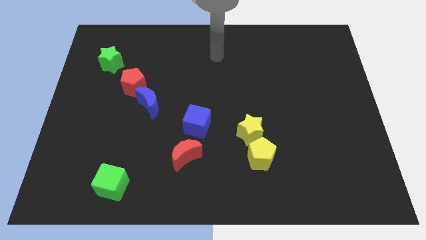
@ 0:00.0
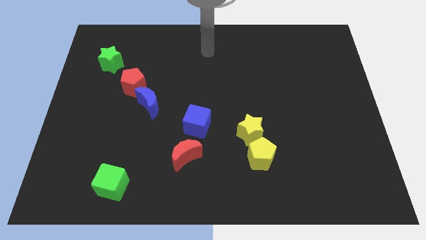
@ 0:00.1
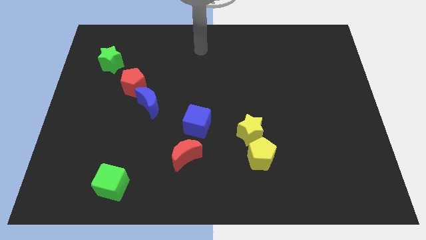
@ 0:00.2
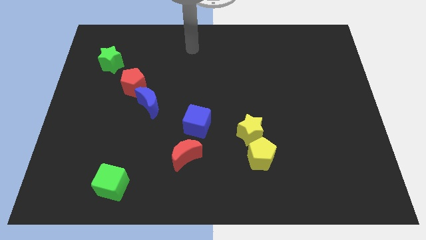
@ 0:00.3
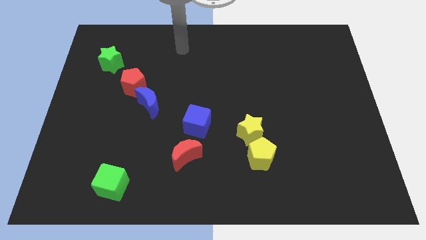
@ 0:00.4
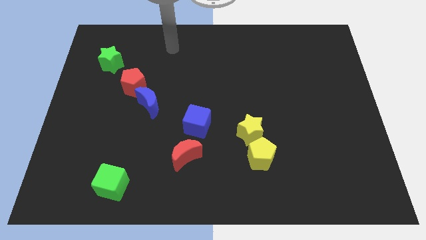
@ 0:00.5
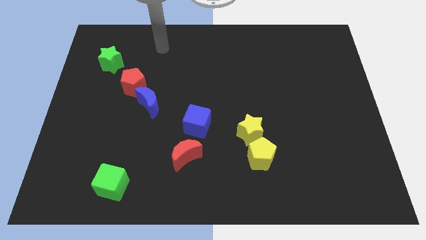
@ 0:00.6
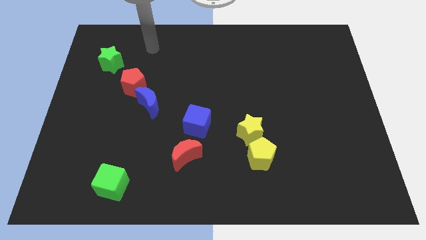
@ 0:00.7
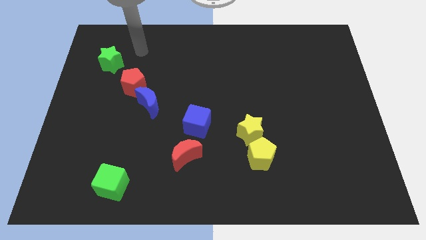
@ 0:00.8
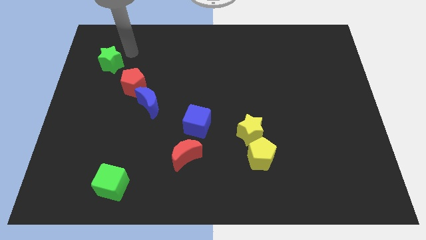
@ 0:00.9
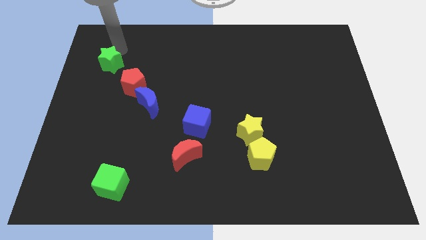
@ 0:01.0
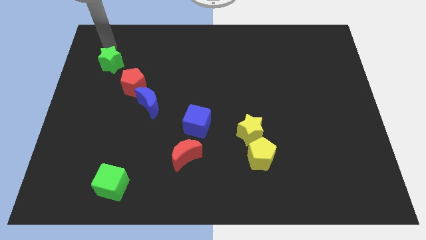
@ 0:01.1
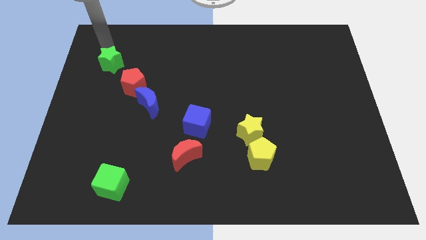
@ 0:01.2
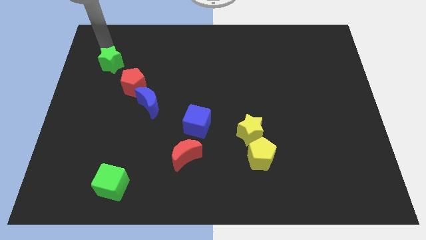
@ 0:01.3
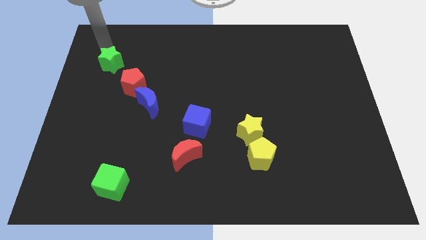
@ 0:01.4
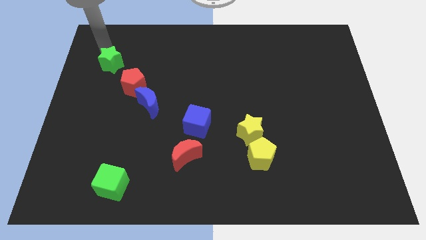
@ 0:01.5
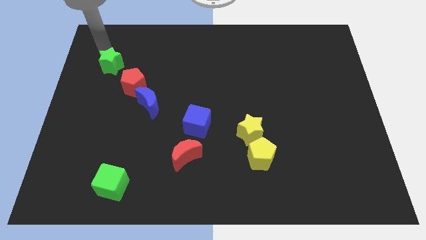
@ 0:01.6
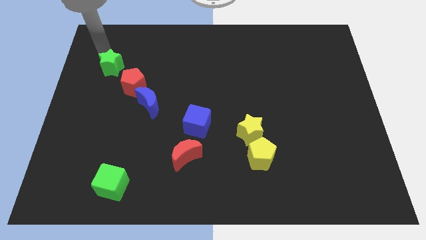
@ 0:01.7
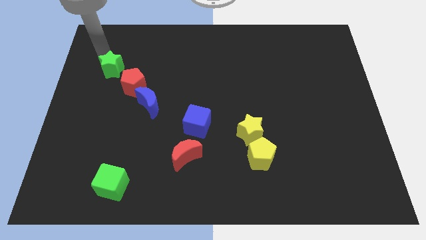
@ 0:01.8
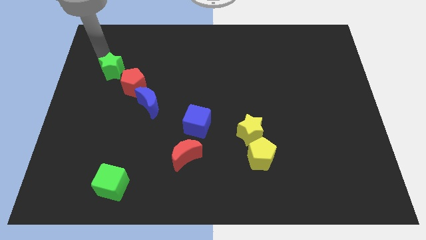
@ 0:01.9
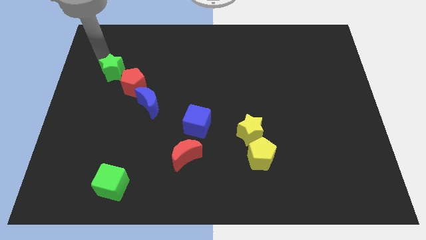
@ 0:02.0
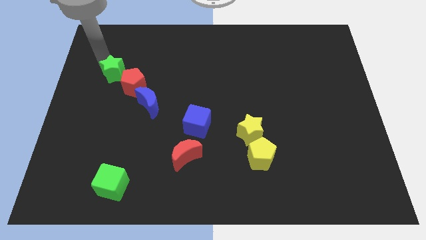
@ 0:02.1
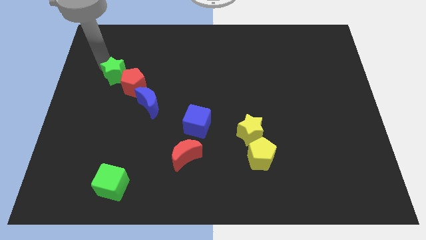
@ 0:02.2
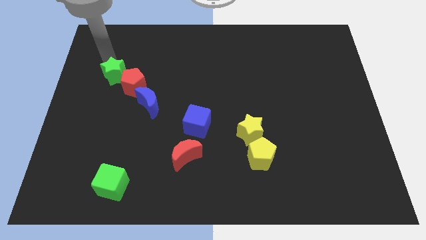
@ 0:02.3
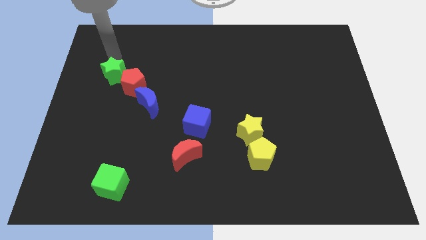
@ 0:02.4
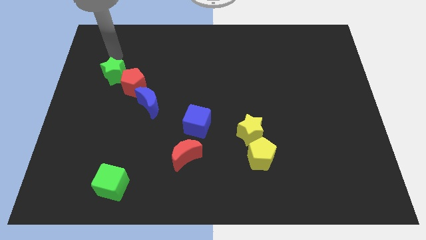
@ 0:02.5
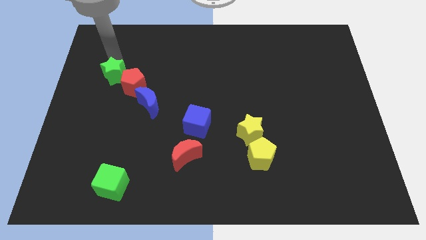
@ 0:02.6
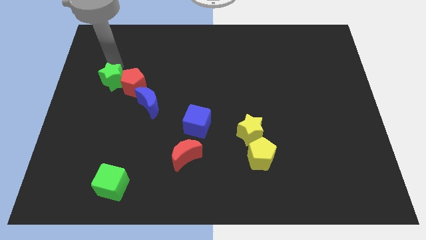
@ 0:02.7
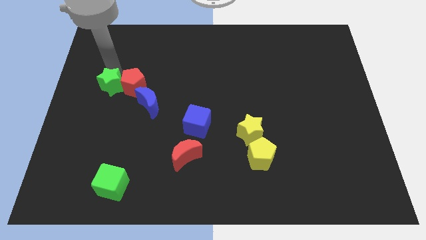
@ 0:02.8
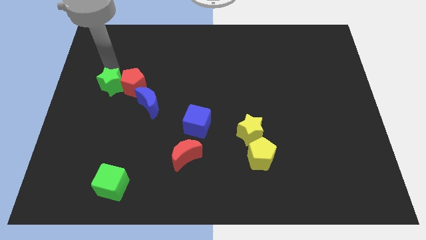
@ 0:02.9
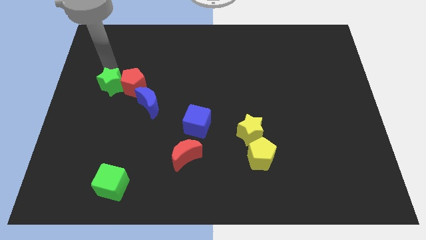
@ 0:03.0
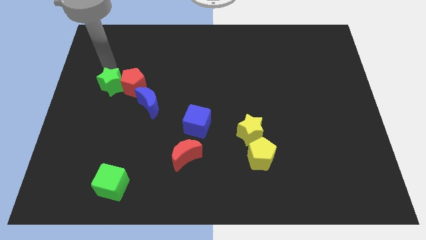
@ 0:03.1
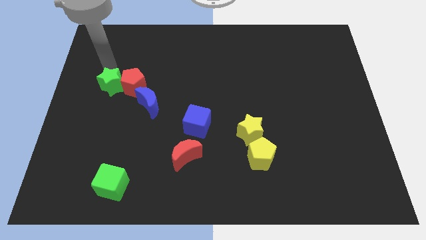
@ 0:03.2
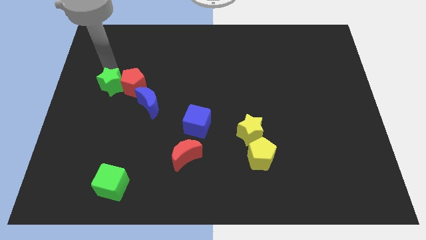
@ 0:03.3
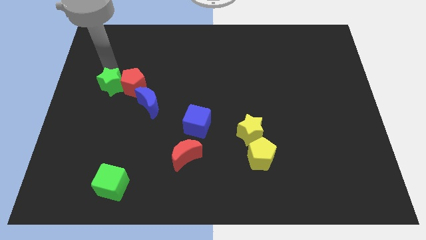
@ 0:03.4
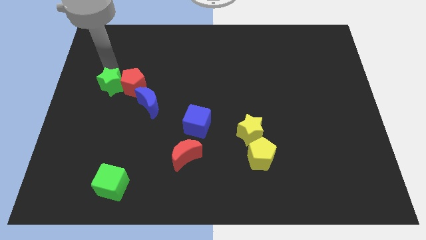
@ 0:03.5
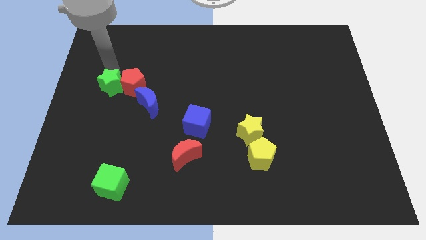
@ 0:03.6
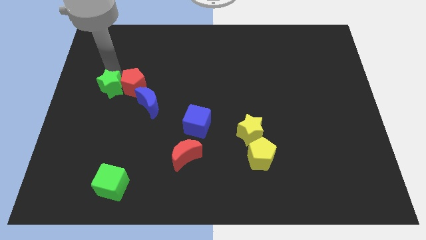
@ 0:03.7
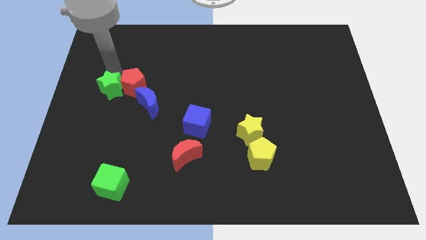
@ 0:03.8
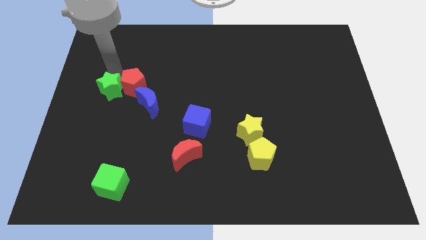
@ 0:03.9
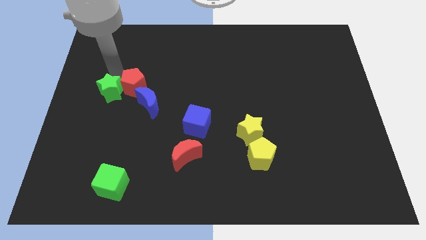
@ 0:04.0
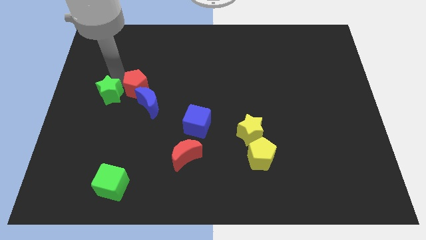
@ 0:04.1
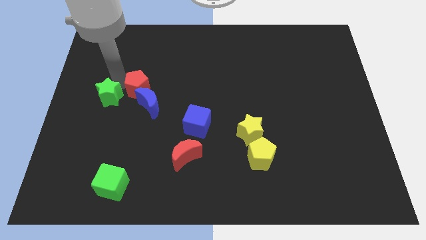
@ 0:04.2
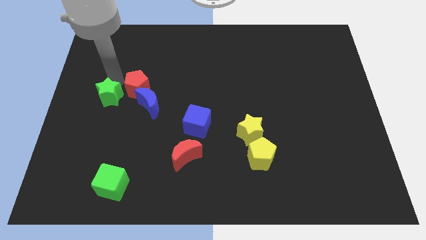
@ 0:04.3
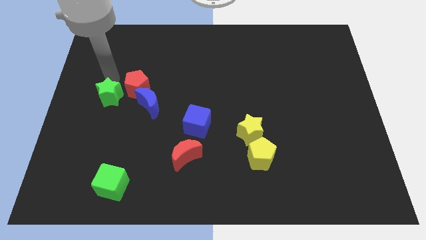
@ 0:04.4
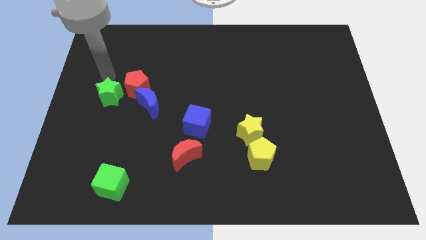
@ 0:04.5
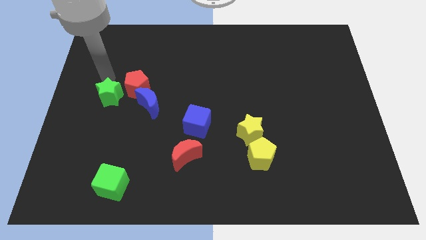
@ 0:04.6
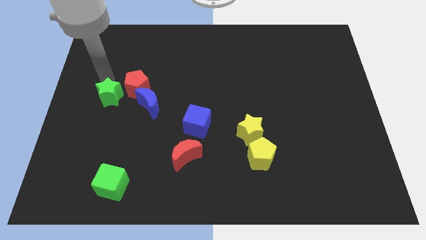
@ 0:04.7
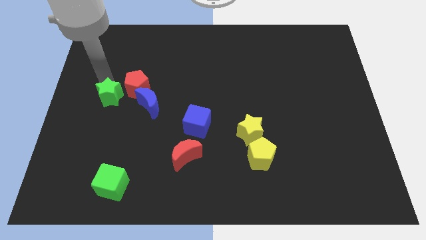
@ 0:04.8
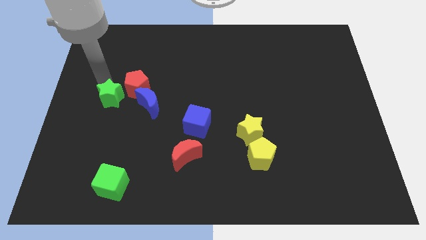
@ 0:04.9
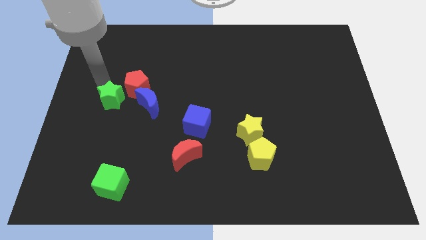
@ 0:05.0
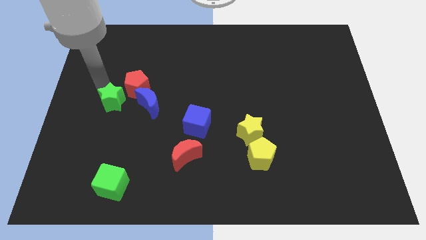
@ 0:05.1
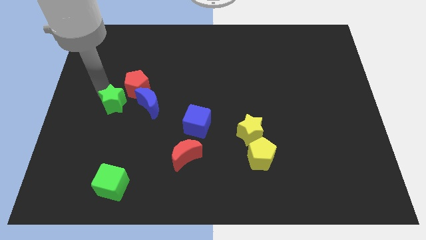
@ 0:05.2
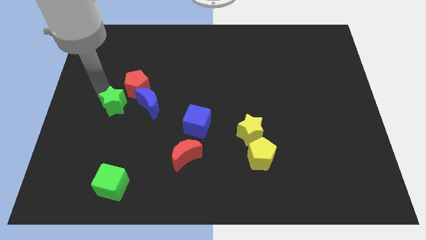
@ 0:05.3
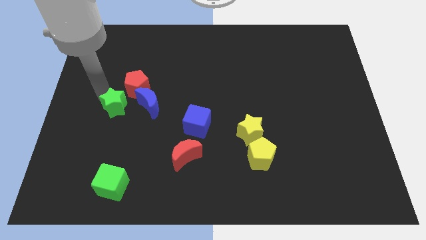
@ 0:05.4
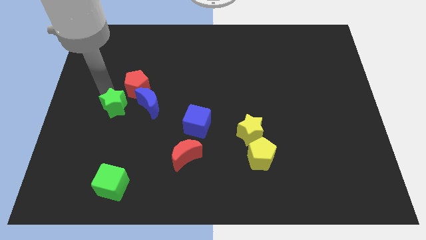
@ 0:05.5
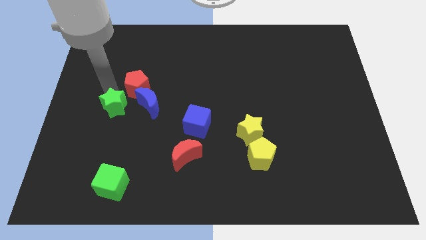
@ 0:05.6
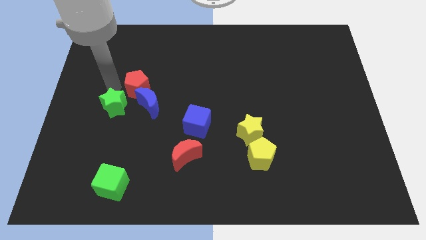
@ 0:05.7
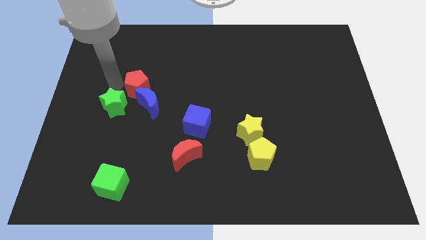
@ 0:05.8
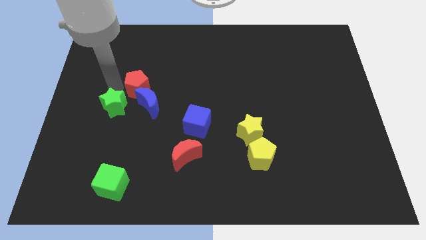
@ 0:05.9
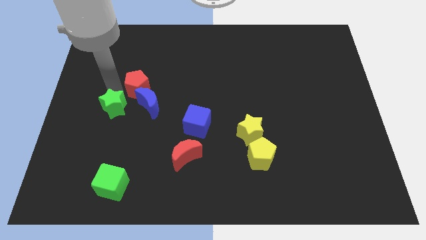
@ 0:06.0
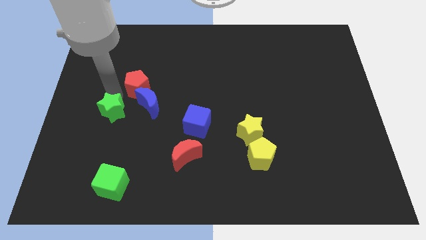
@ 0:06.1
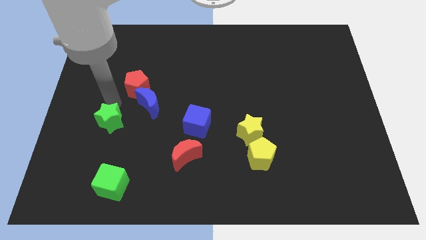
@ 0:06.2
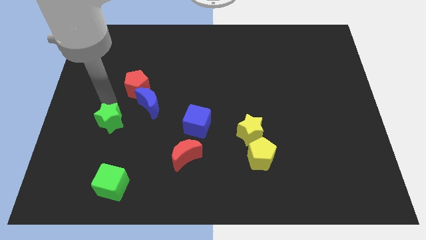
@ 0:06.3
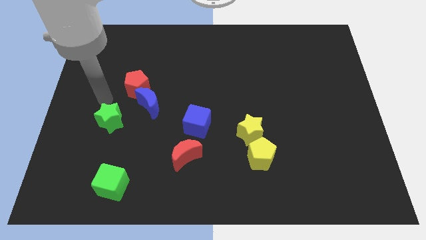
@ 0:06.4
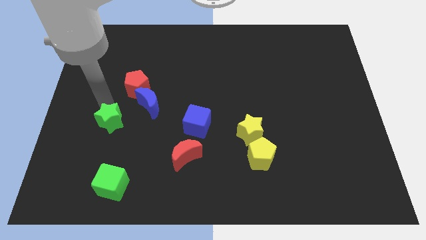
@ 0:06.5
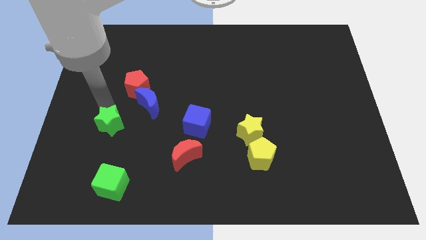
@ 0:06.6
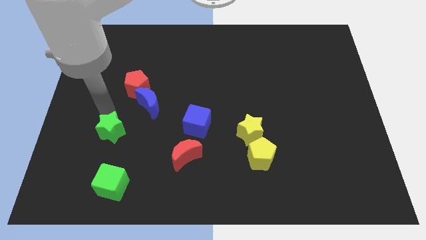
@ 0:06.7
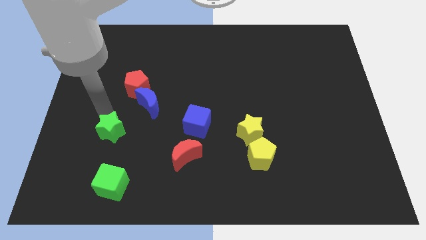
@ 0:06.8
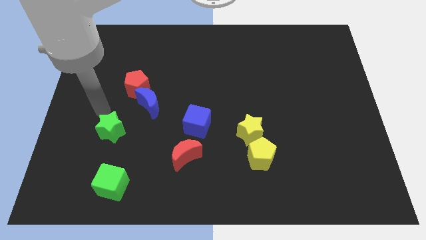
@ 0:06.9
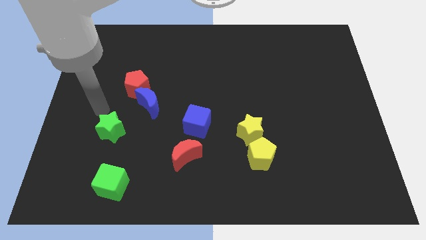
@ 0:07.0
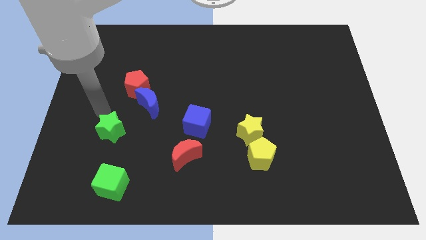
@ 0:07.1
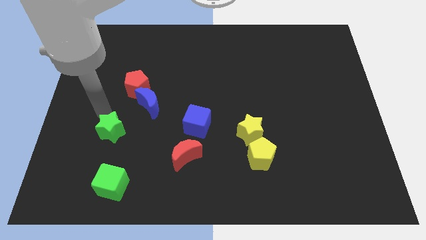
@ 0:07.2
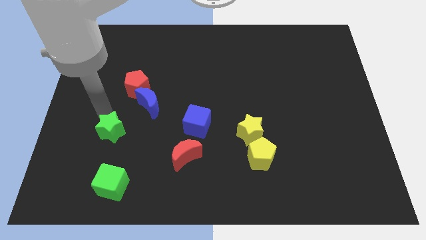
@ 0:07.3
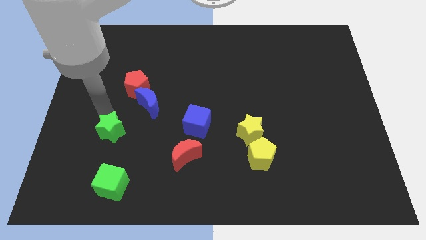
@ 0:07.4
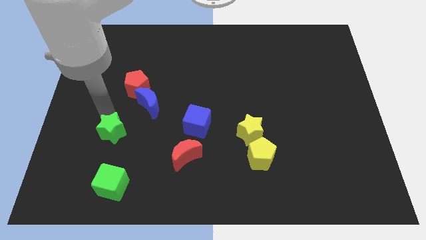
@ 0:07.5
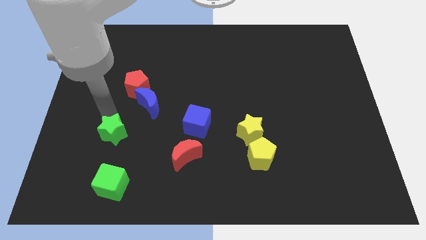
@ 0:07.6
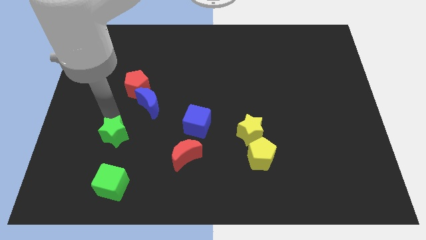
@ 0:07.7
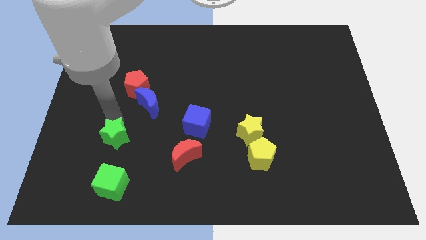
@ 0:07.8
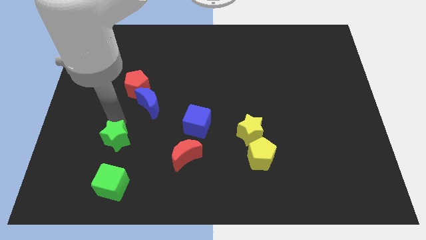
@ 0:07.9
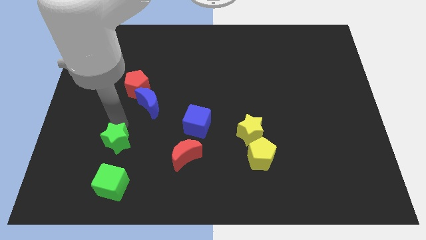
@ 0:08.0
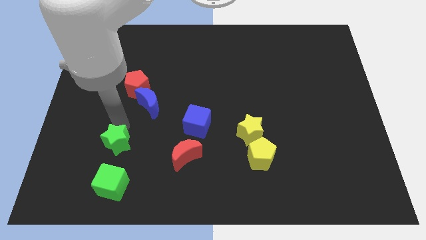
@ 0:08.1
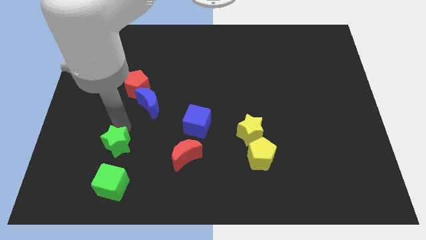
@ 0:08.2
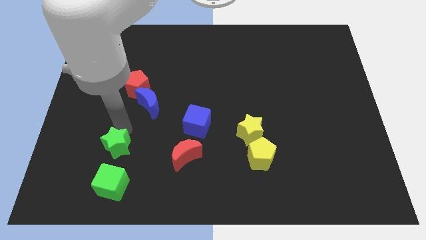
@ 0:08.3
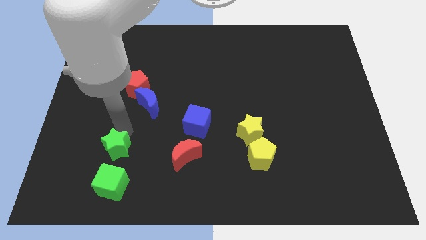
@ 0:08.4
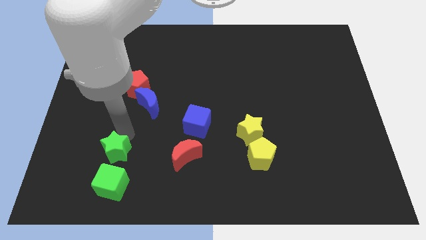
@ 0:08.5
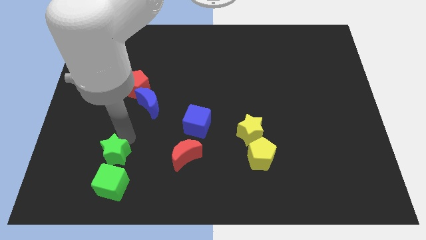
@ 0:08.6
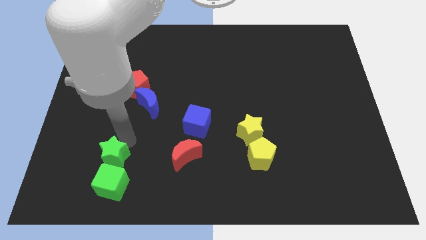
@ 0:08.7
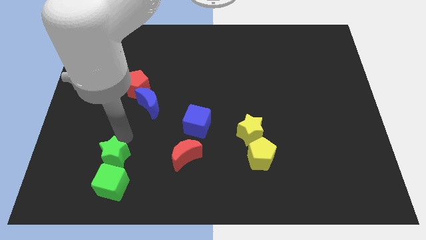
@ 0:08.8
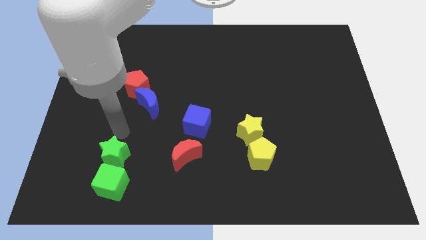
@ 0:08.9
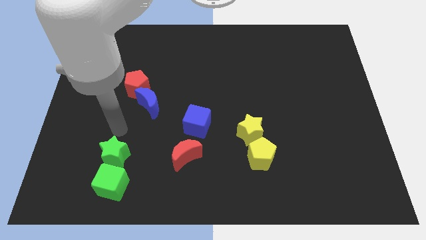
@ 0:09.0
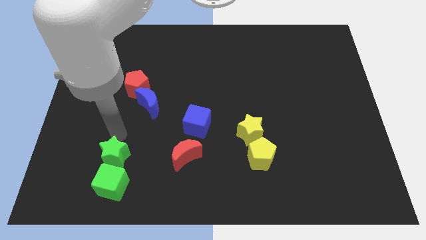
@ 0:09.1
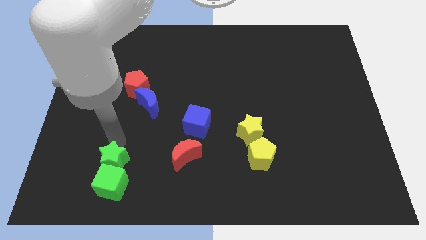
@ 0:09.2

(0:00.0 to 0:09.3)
move the green star to the green cube
